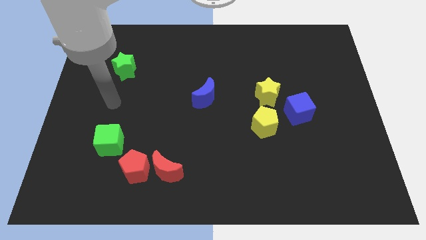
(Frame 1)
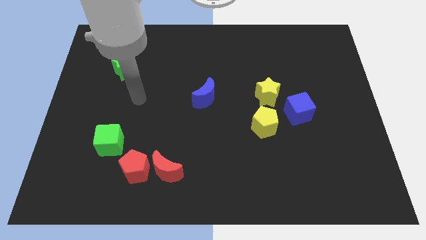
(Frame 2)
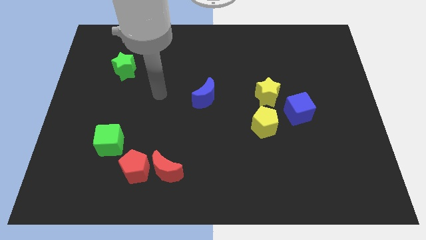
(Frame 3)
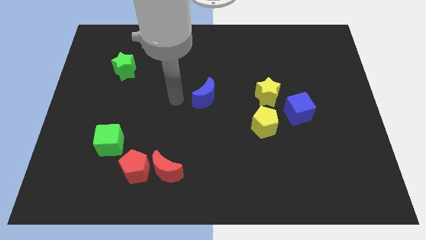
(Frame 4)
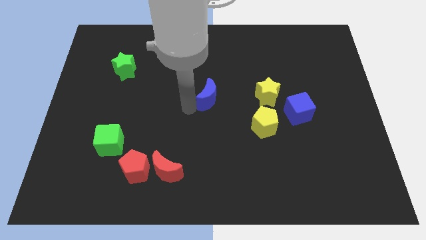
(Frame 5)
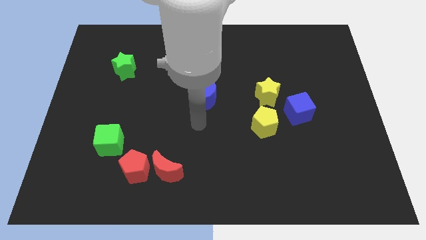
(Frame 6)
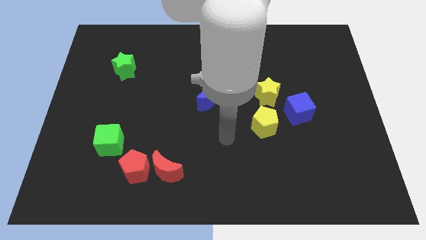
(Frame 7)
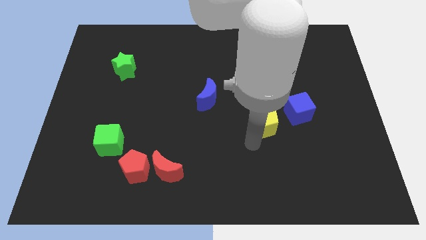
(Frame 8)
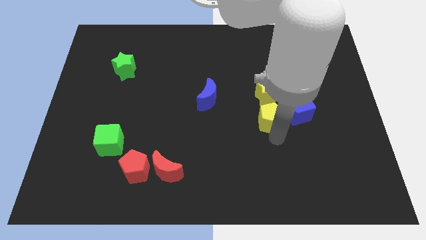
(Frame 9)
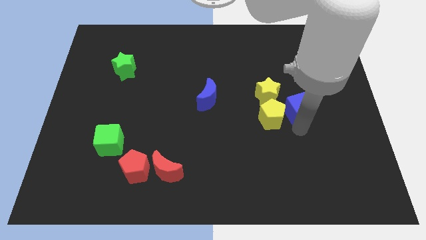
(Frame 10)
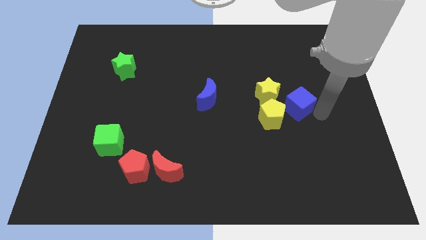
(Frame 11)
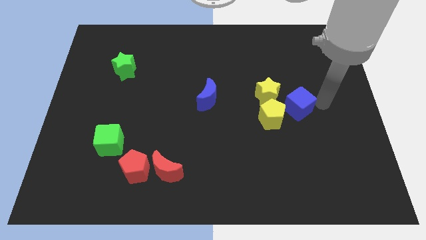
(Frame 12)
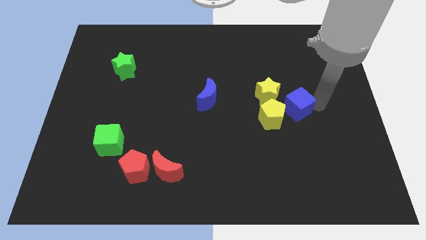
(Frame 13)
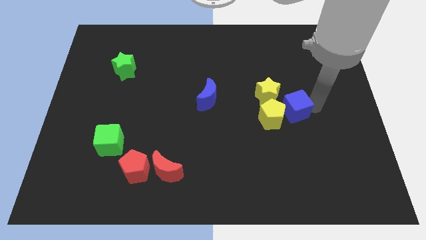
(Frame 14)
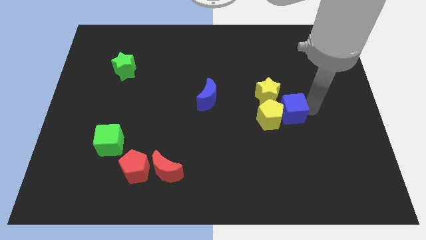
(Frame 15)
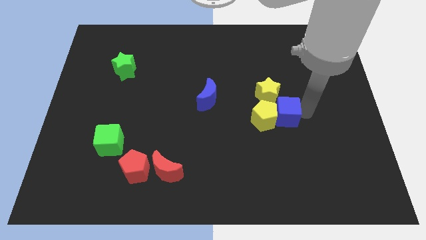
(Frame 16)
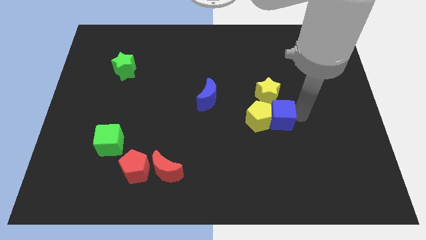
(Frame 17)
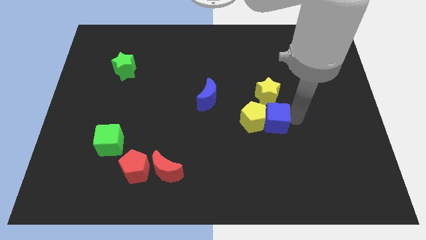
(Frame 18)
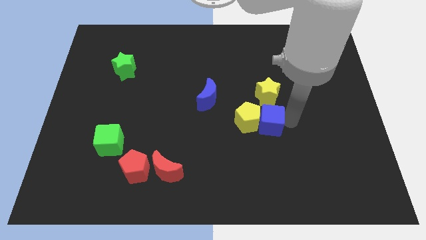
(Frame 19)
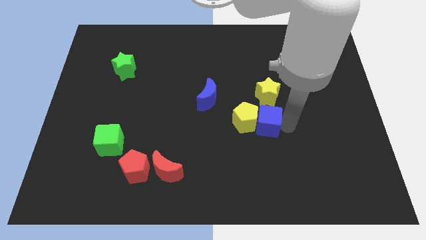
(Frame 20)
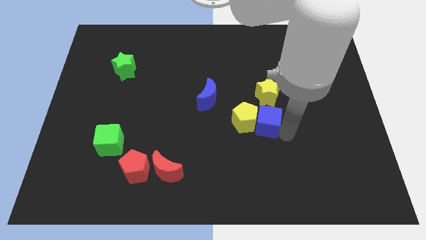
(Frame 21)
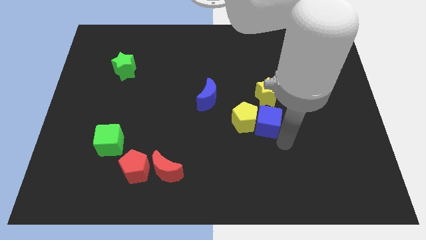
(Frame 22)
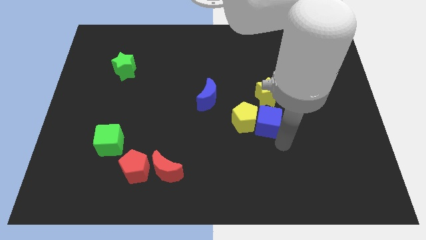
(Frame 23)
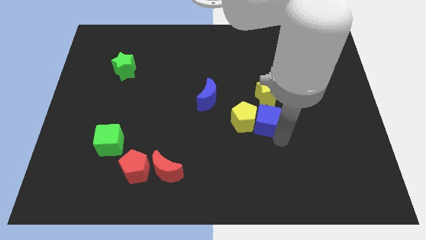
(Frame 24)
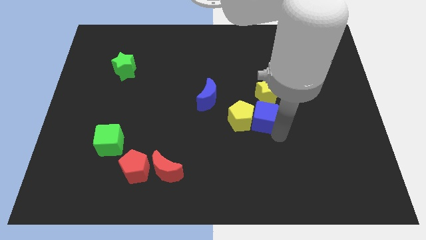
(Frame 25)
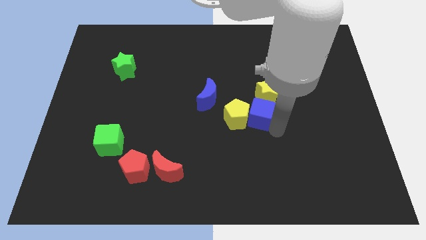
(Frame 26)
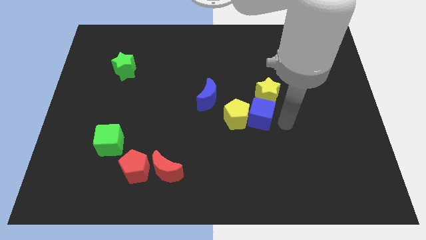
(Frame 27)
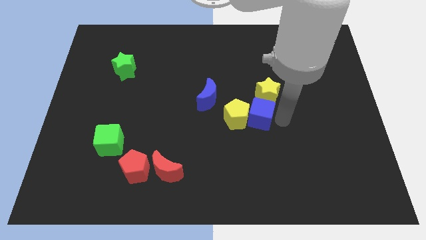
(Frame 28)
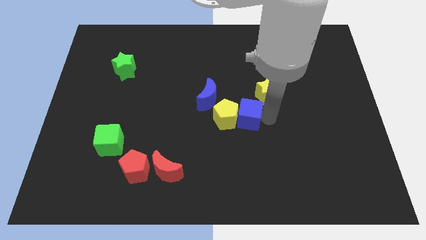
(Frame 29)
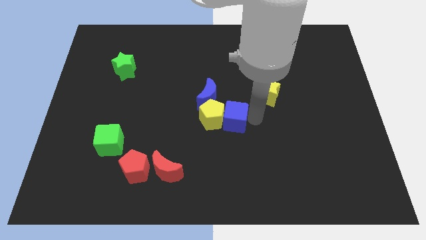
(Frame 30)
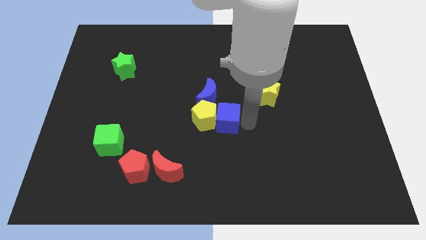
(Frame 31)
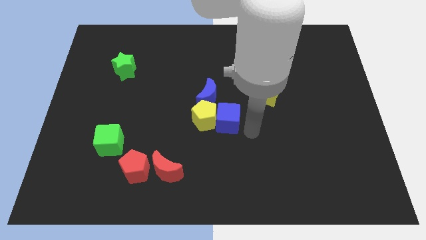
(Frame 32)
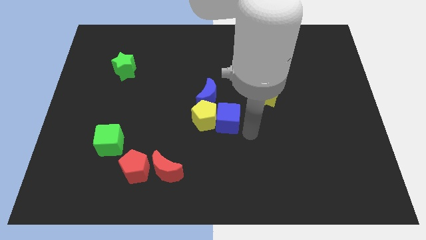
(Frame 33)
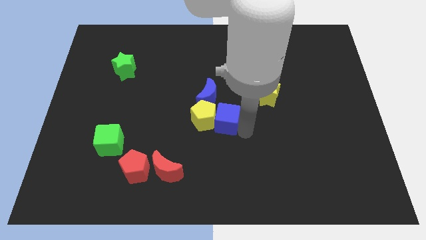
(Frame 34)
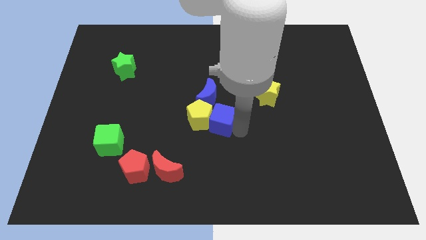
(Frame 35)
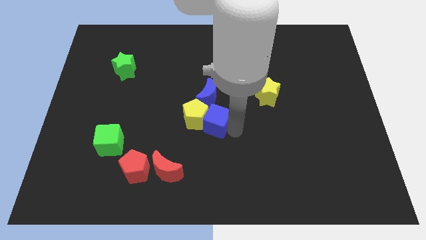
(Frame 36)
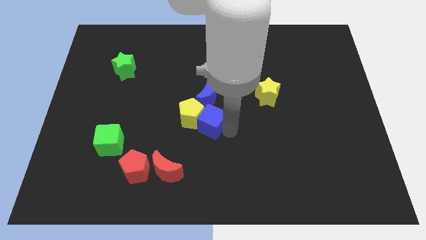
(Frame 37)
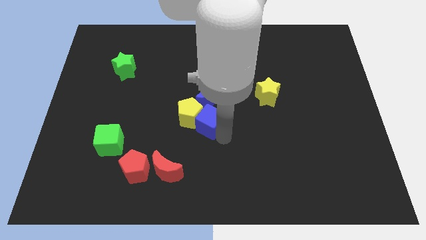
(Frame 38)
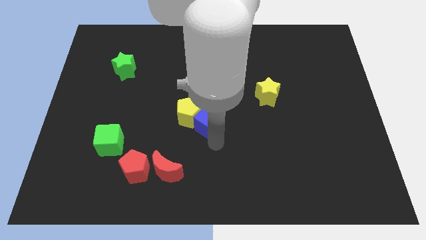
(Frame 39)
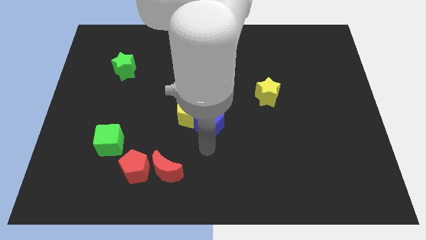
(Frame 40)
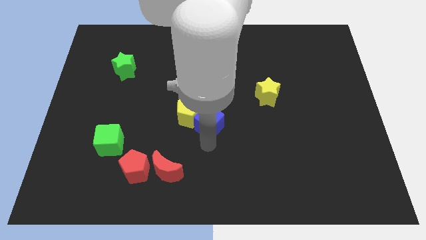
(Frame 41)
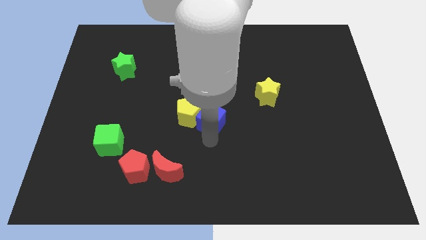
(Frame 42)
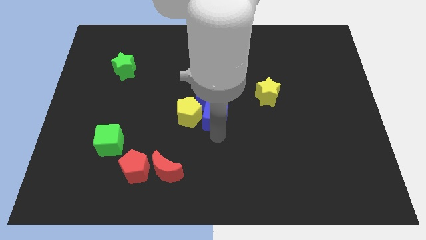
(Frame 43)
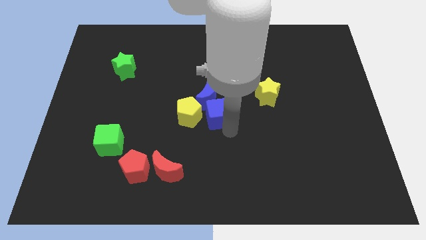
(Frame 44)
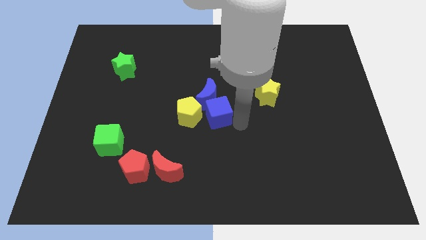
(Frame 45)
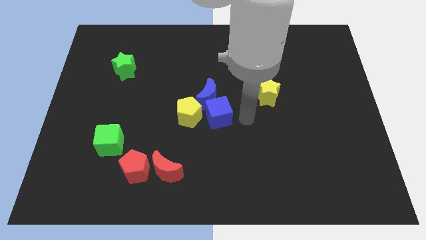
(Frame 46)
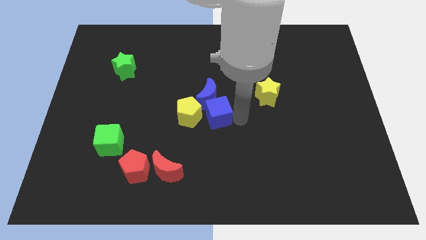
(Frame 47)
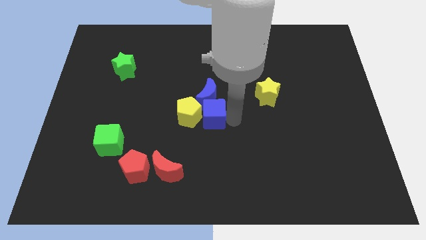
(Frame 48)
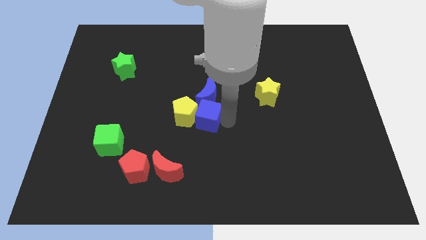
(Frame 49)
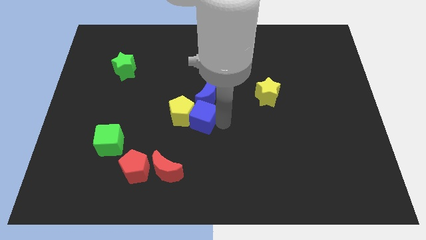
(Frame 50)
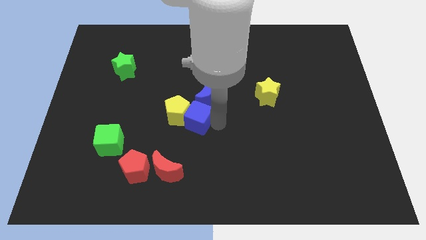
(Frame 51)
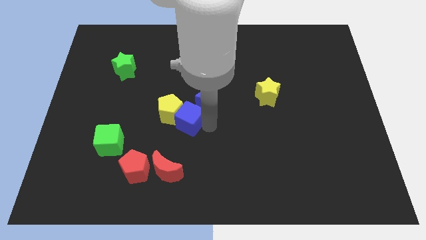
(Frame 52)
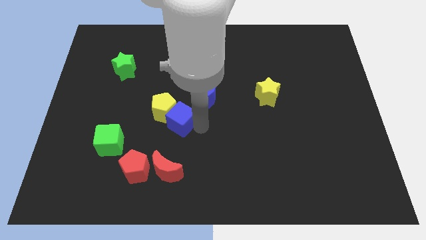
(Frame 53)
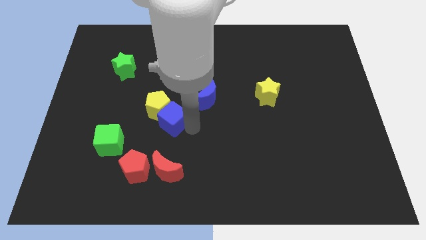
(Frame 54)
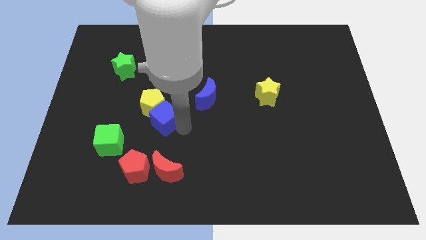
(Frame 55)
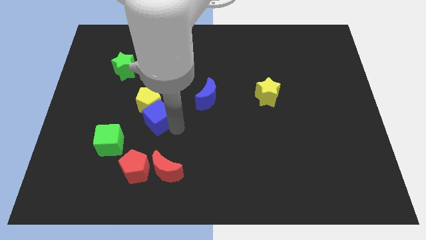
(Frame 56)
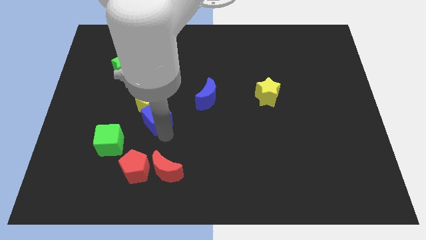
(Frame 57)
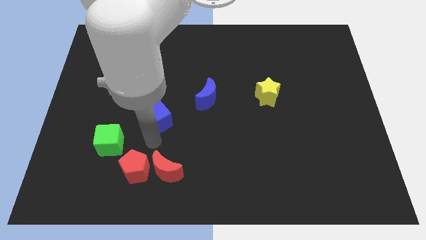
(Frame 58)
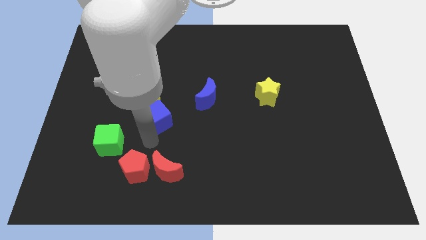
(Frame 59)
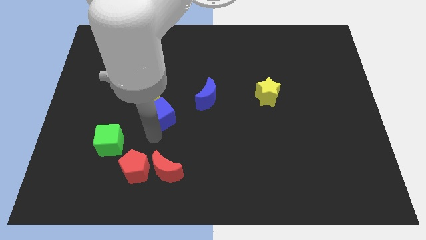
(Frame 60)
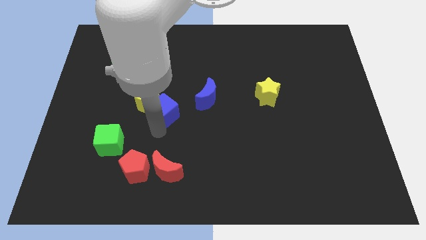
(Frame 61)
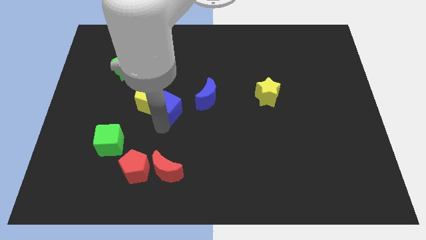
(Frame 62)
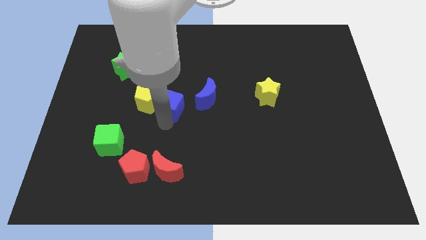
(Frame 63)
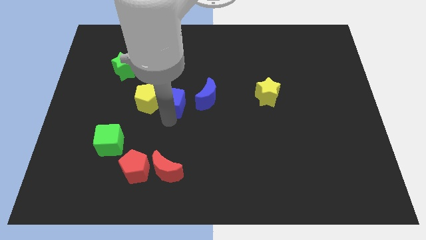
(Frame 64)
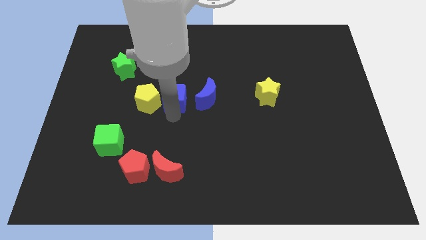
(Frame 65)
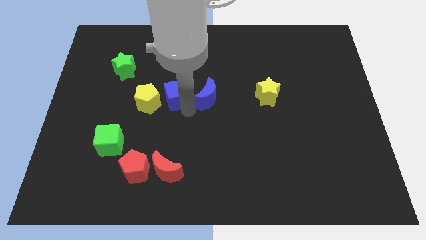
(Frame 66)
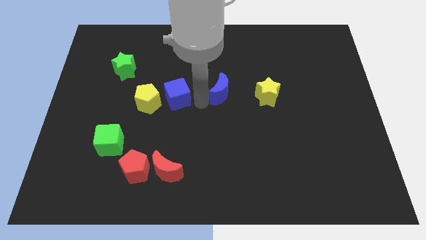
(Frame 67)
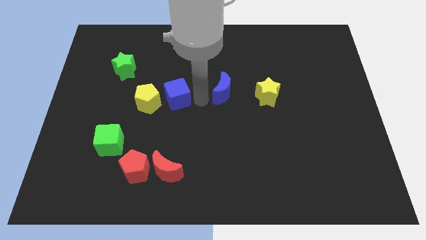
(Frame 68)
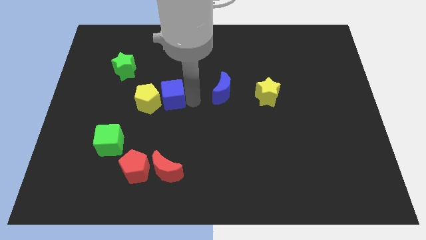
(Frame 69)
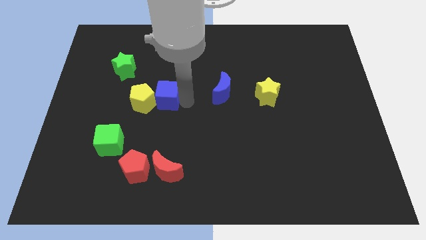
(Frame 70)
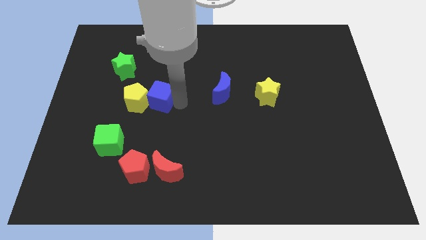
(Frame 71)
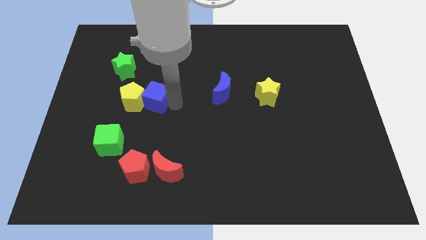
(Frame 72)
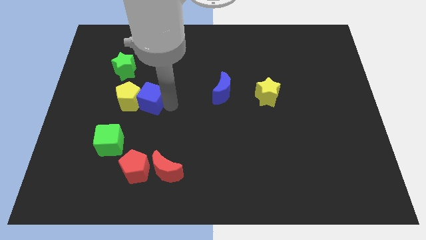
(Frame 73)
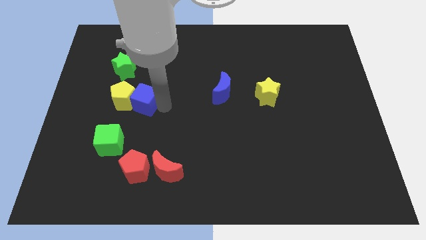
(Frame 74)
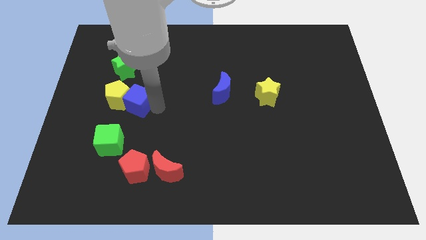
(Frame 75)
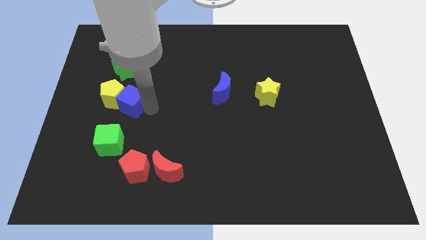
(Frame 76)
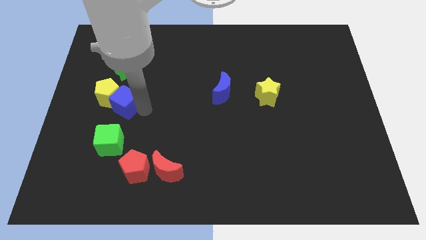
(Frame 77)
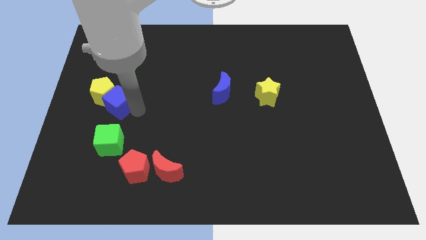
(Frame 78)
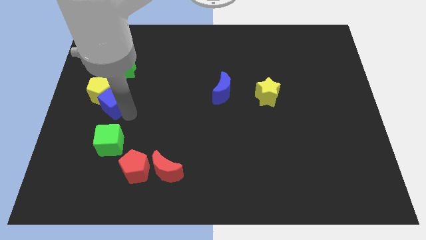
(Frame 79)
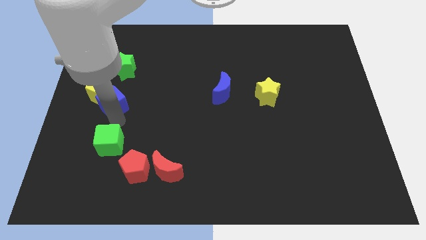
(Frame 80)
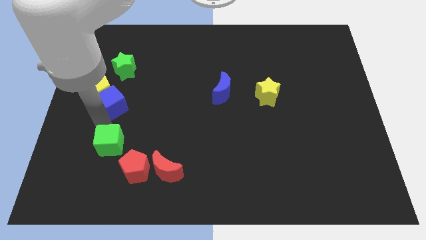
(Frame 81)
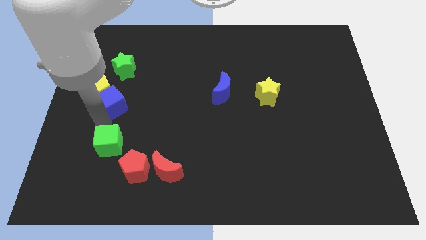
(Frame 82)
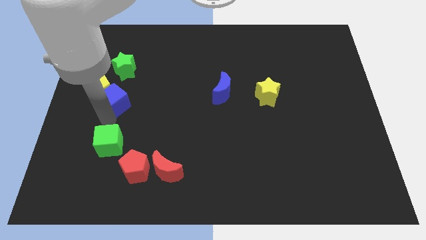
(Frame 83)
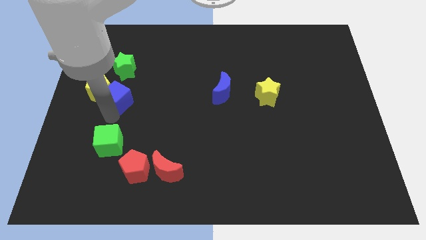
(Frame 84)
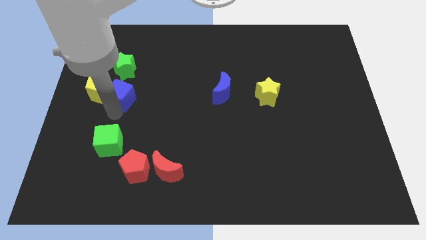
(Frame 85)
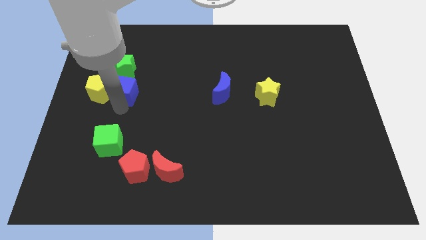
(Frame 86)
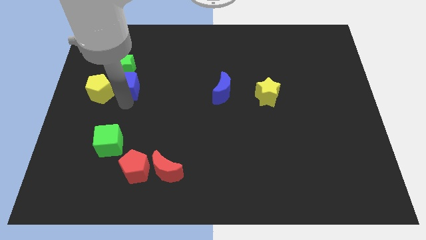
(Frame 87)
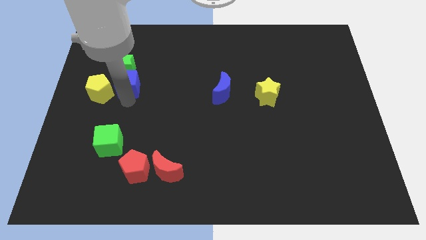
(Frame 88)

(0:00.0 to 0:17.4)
move the blue cube next to the green star
